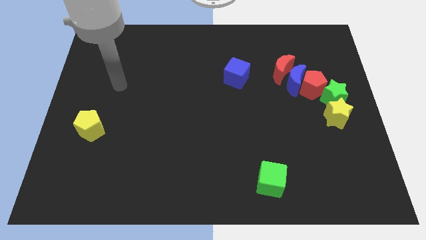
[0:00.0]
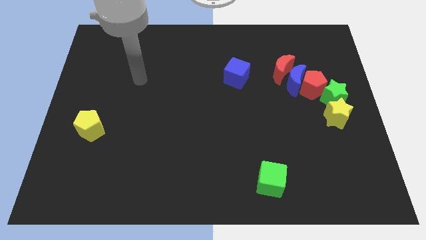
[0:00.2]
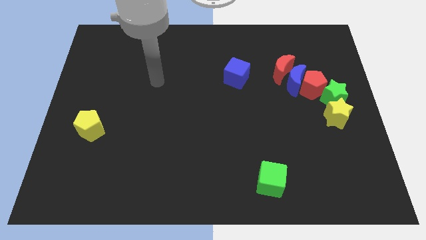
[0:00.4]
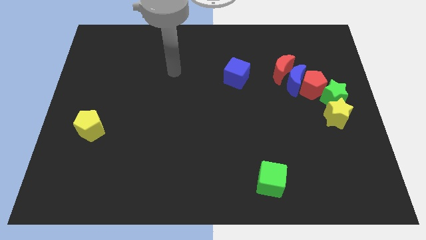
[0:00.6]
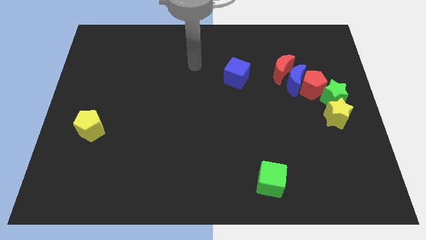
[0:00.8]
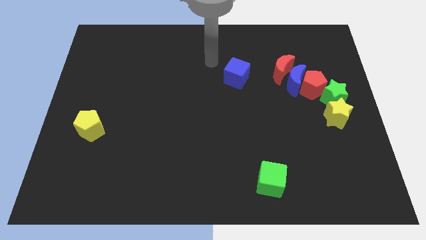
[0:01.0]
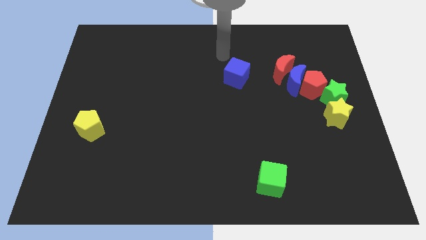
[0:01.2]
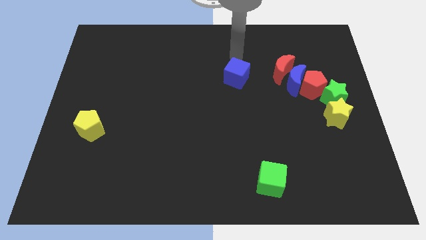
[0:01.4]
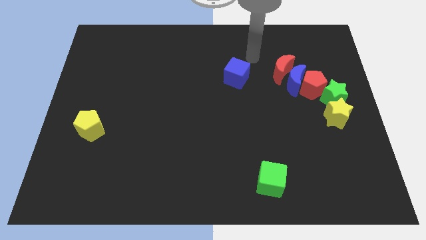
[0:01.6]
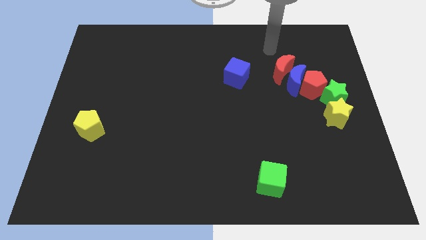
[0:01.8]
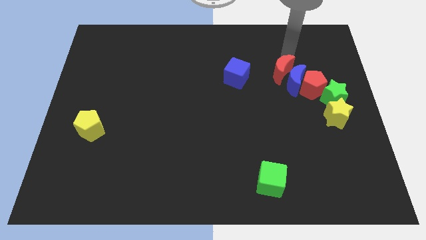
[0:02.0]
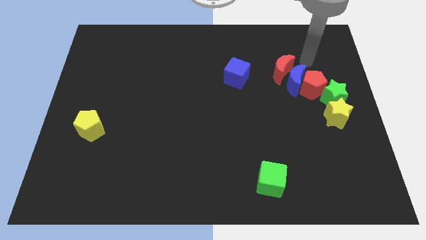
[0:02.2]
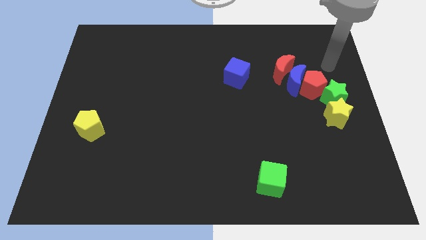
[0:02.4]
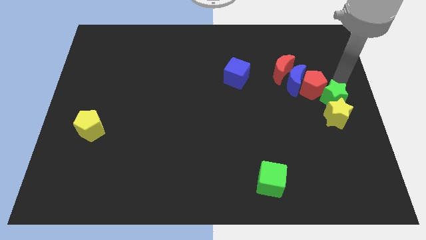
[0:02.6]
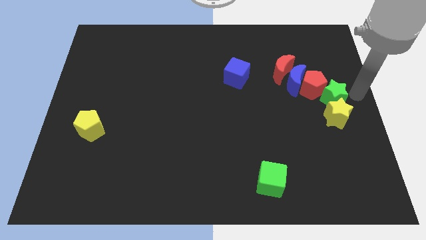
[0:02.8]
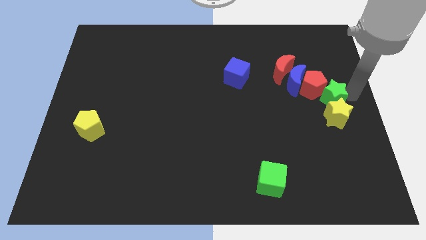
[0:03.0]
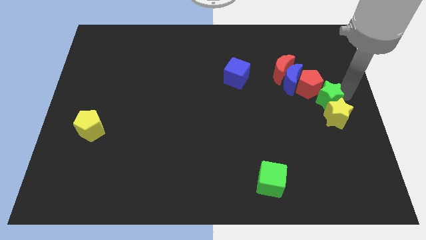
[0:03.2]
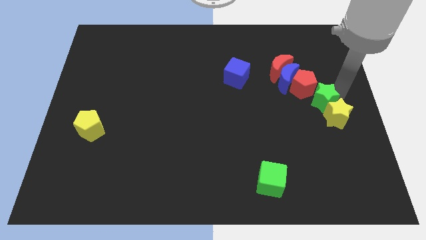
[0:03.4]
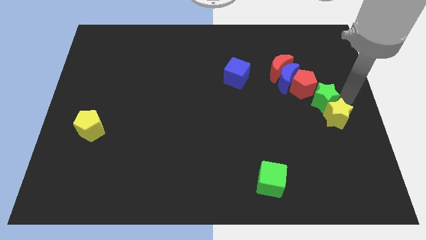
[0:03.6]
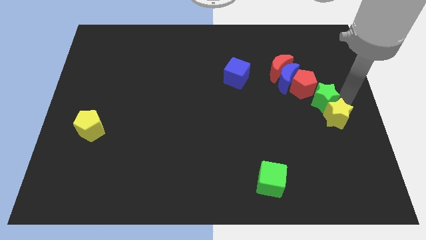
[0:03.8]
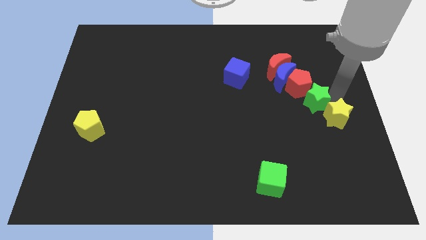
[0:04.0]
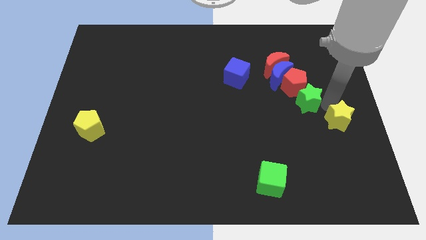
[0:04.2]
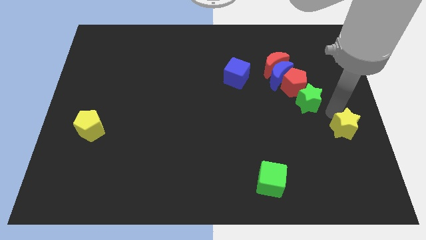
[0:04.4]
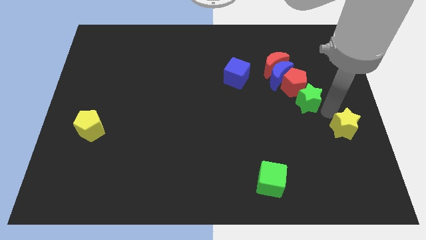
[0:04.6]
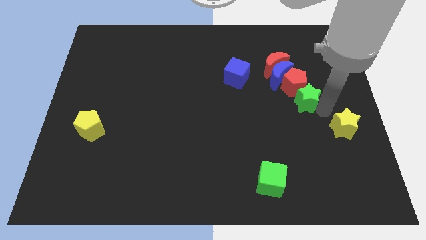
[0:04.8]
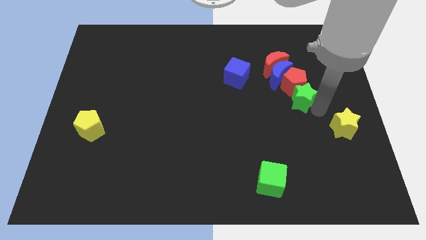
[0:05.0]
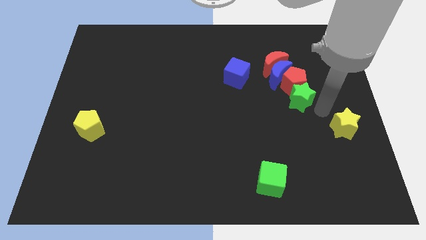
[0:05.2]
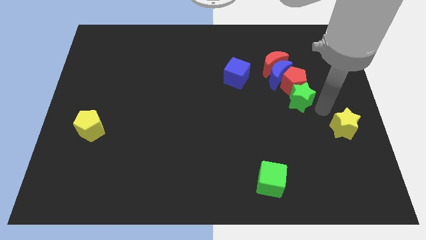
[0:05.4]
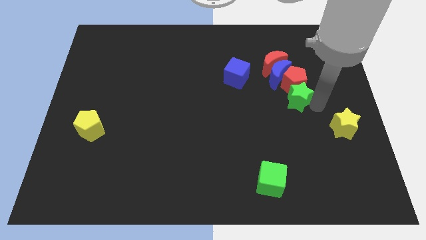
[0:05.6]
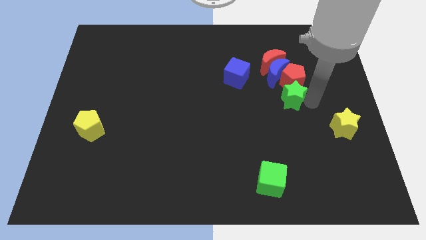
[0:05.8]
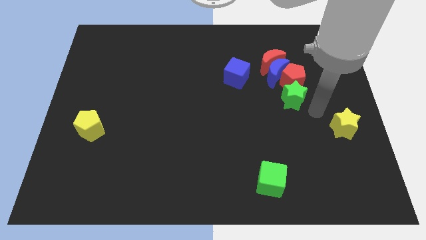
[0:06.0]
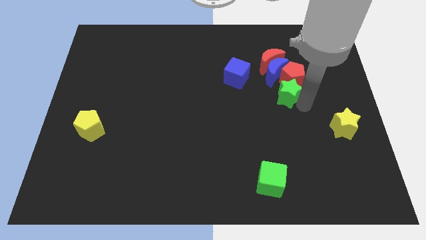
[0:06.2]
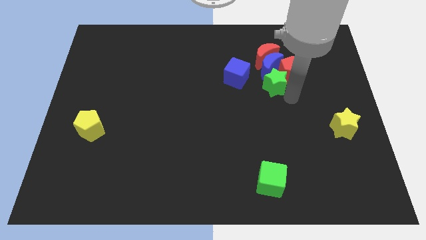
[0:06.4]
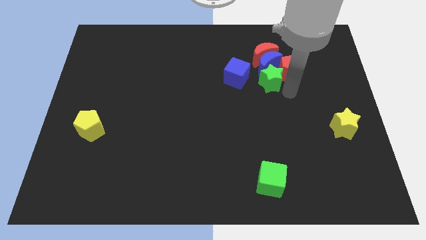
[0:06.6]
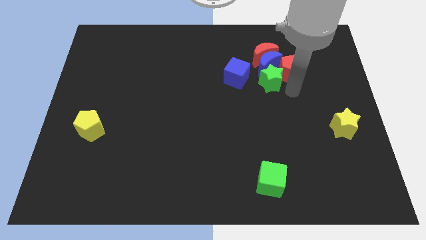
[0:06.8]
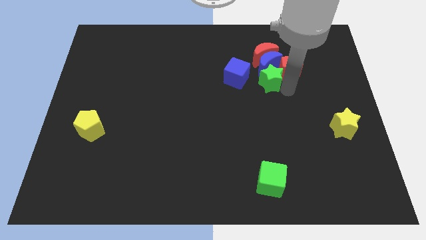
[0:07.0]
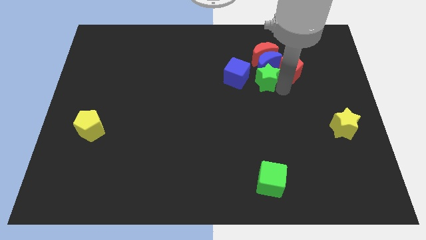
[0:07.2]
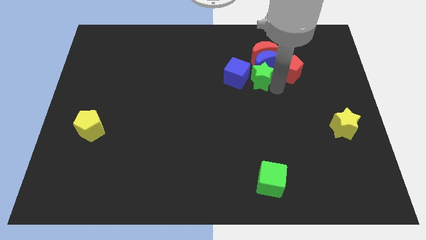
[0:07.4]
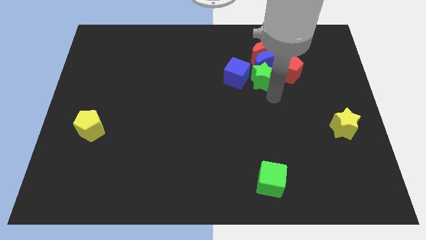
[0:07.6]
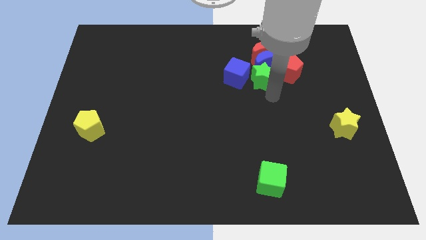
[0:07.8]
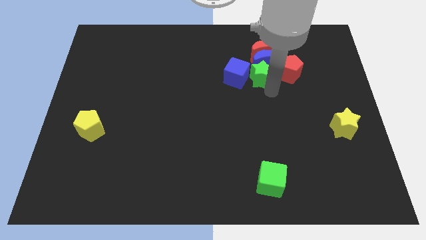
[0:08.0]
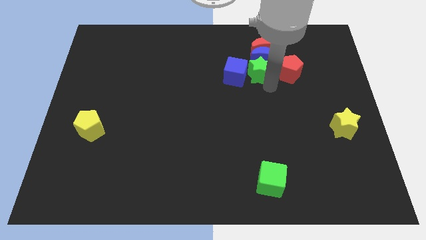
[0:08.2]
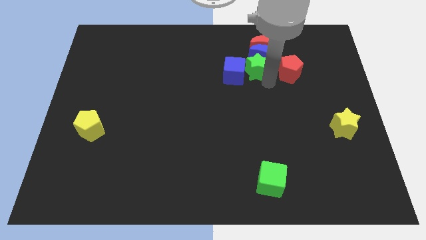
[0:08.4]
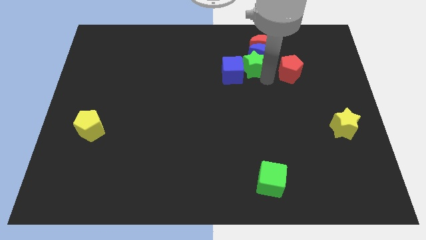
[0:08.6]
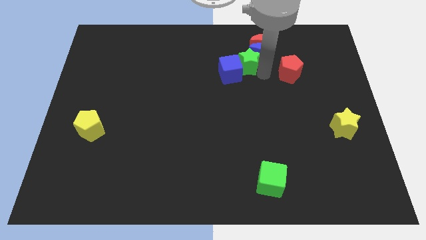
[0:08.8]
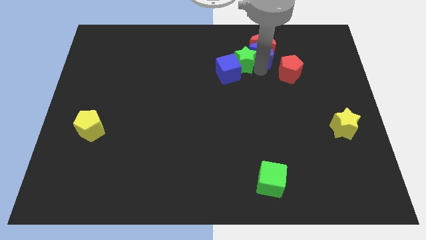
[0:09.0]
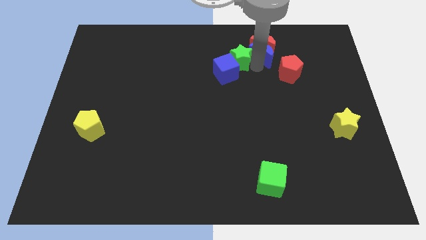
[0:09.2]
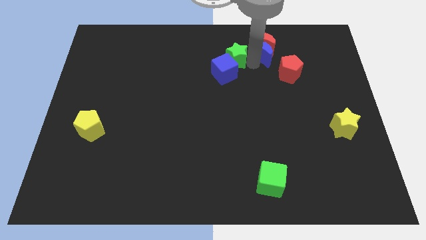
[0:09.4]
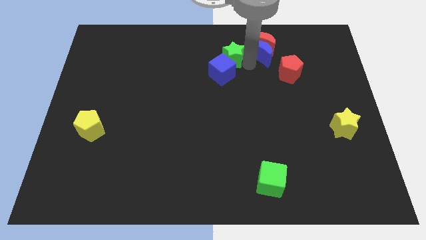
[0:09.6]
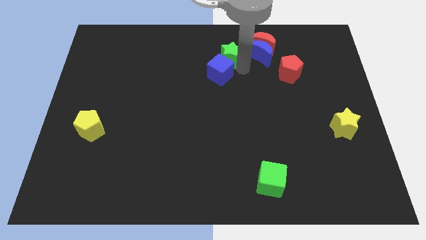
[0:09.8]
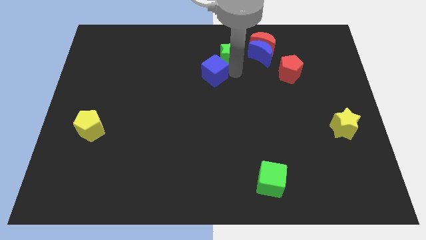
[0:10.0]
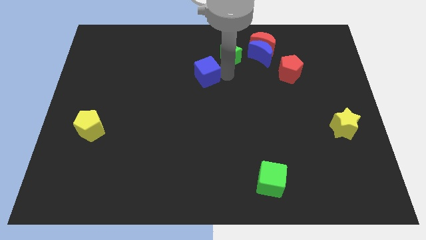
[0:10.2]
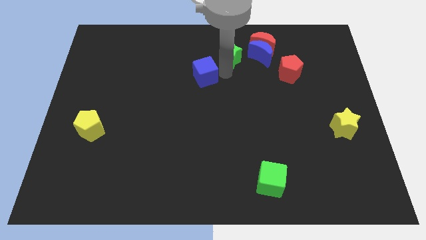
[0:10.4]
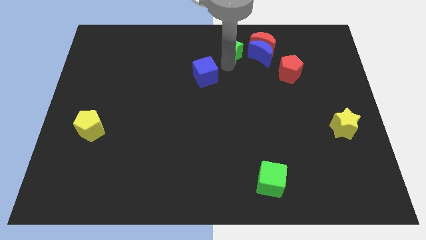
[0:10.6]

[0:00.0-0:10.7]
slide the green star to the top side

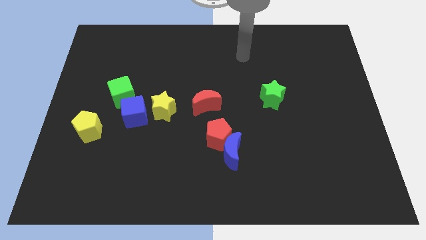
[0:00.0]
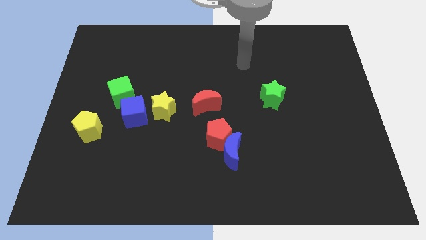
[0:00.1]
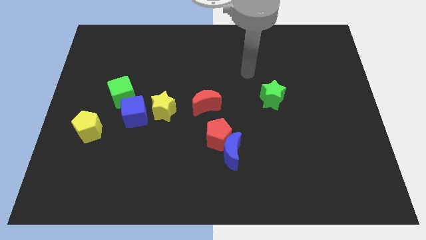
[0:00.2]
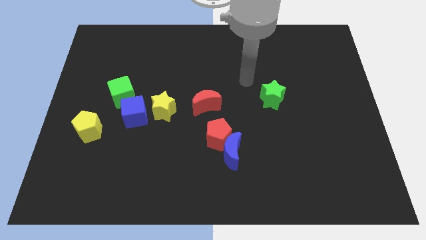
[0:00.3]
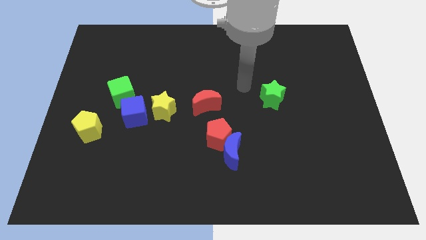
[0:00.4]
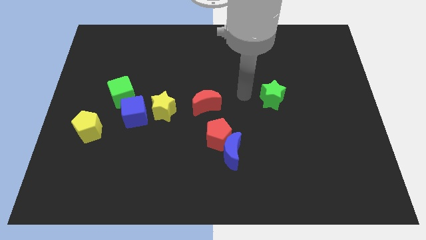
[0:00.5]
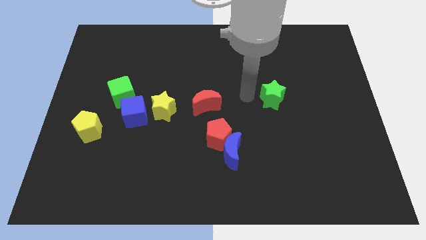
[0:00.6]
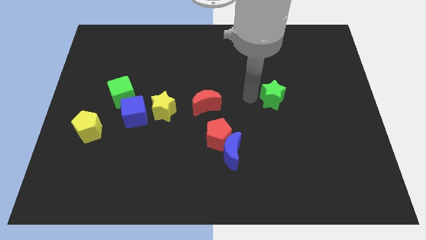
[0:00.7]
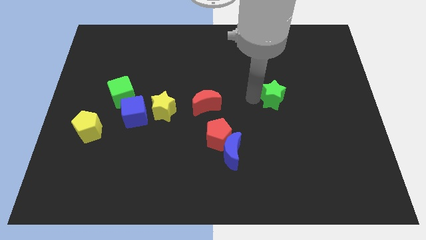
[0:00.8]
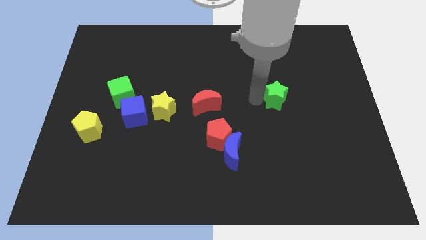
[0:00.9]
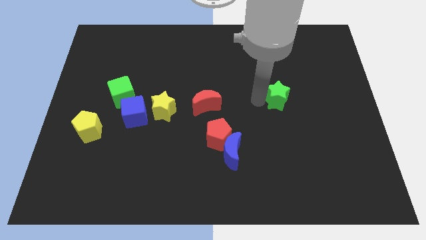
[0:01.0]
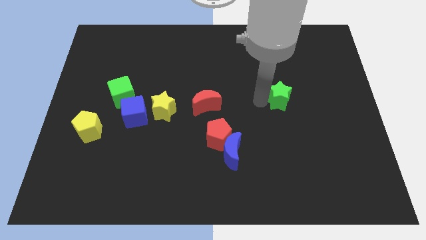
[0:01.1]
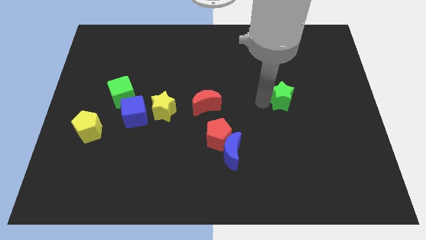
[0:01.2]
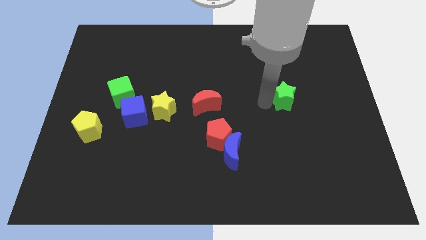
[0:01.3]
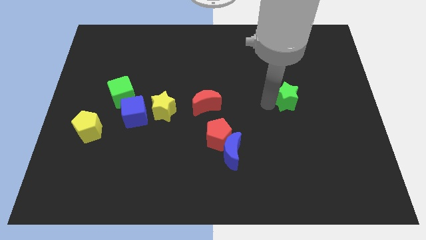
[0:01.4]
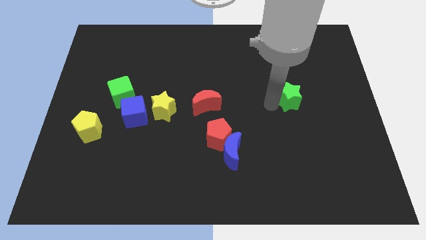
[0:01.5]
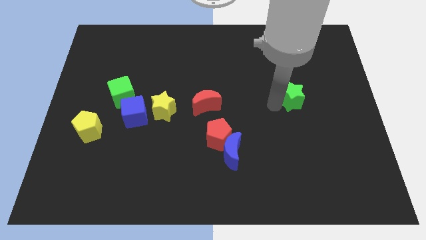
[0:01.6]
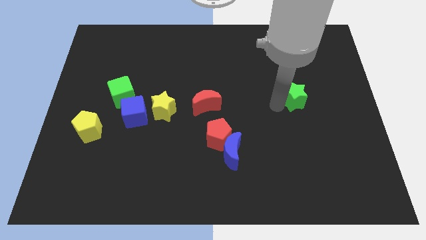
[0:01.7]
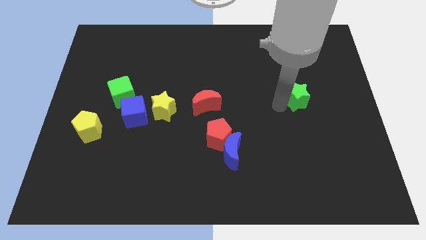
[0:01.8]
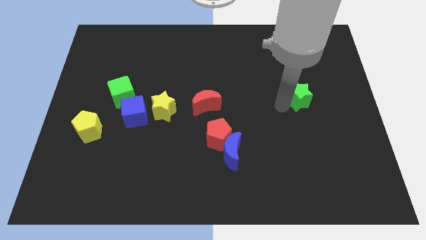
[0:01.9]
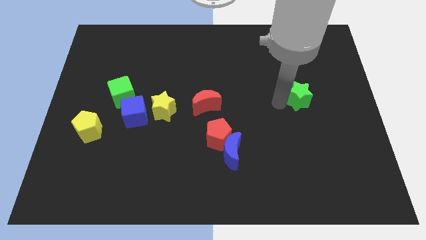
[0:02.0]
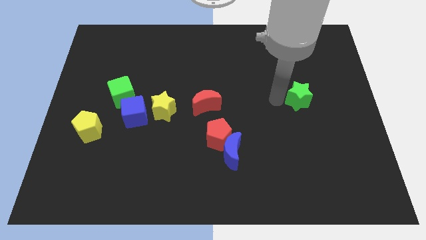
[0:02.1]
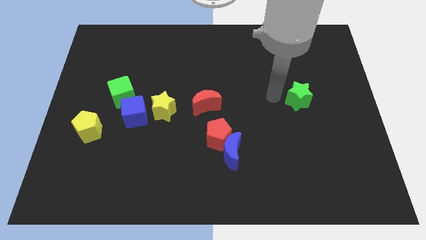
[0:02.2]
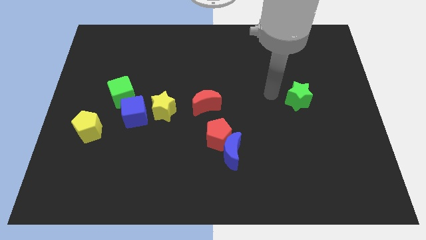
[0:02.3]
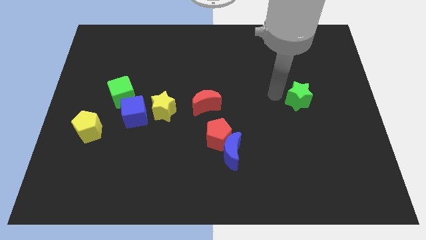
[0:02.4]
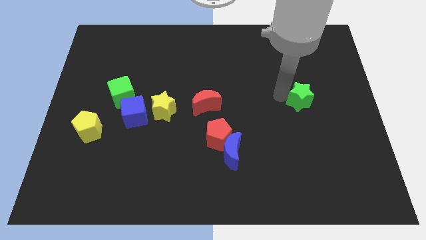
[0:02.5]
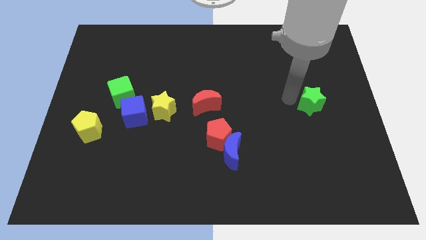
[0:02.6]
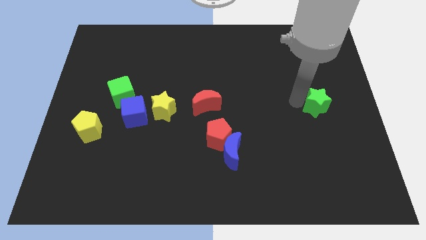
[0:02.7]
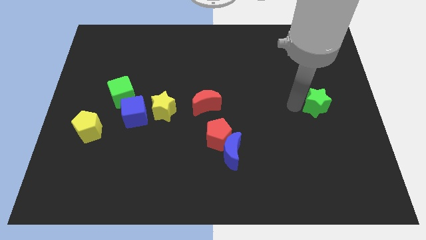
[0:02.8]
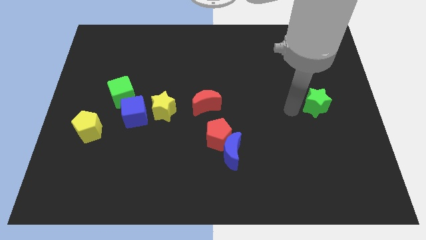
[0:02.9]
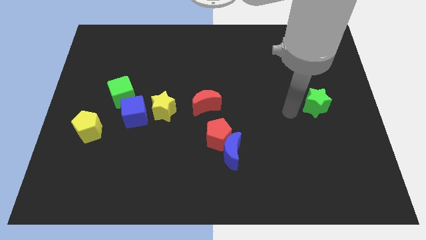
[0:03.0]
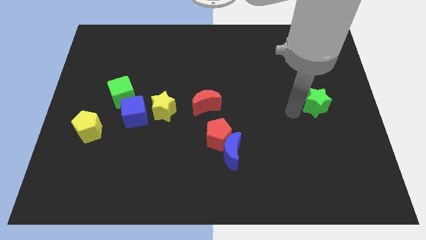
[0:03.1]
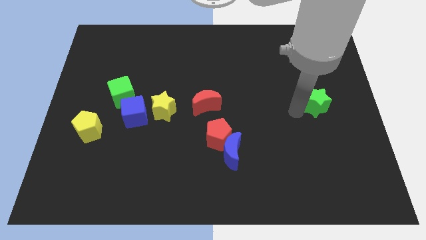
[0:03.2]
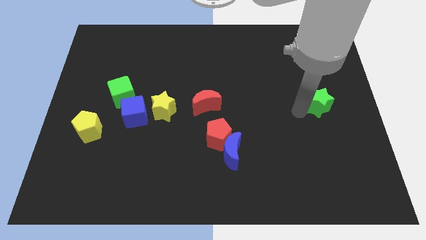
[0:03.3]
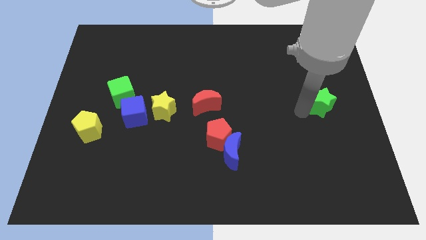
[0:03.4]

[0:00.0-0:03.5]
slide the green star to the center right
